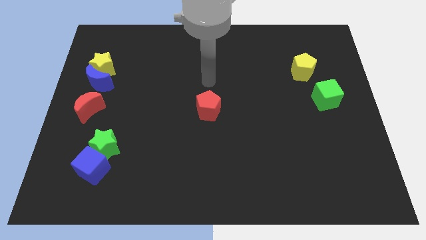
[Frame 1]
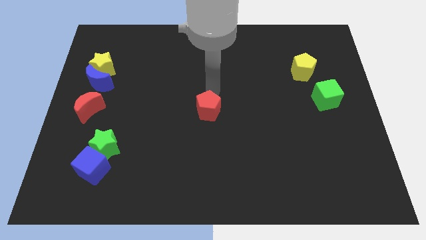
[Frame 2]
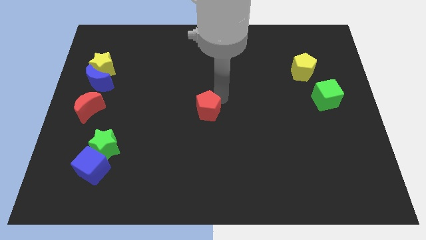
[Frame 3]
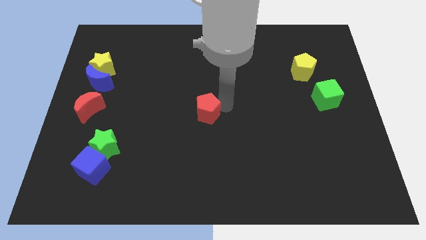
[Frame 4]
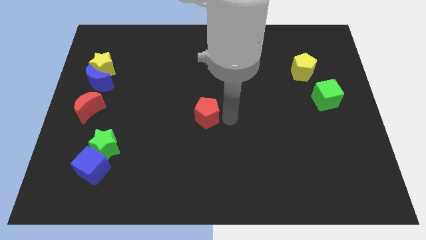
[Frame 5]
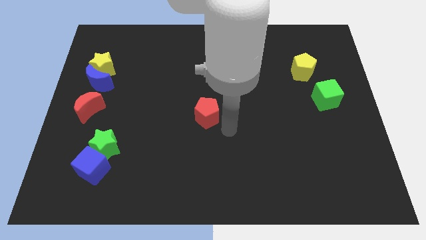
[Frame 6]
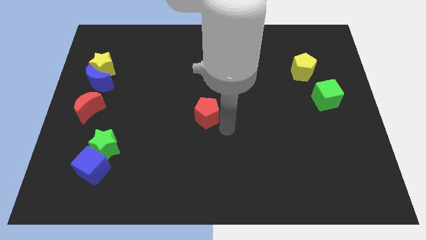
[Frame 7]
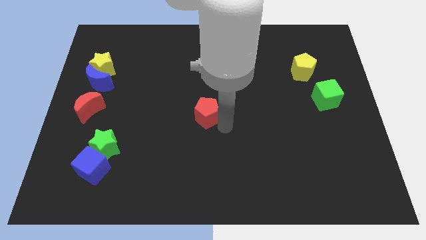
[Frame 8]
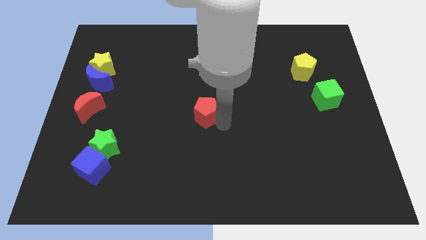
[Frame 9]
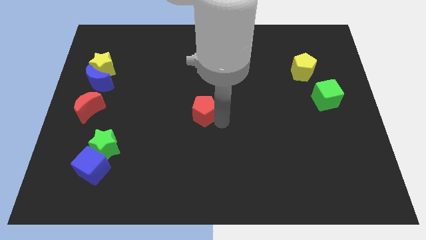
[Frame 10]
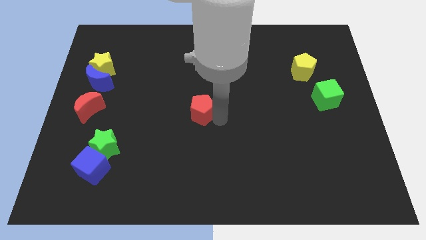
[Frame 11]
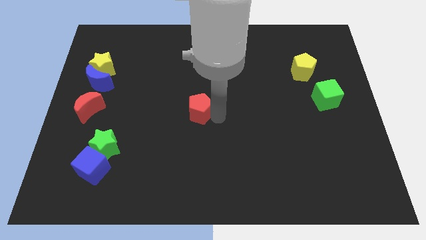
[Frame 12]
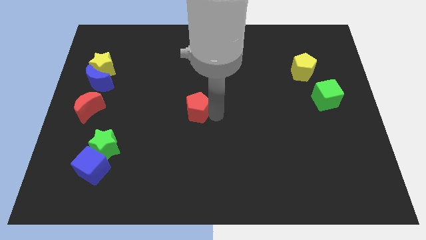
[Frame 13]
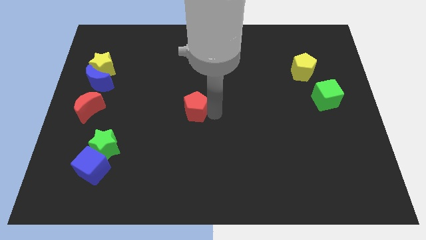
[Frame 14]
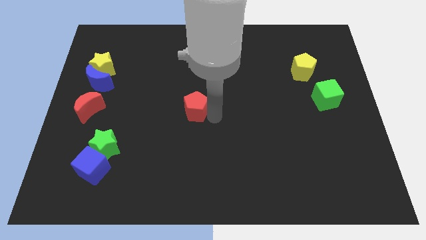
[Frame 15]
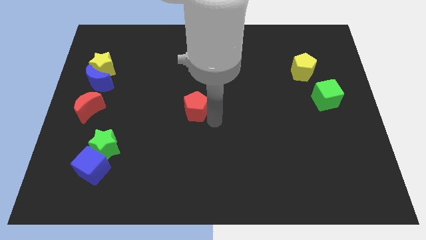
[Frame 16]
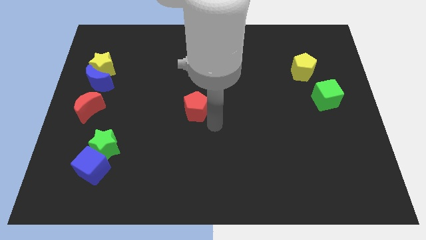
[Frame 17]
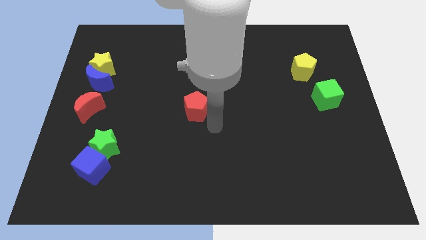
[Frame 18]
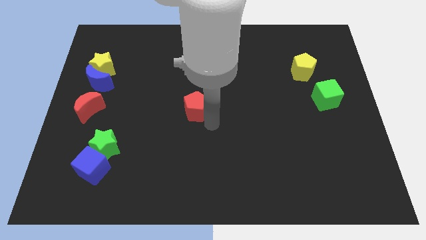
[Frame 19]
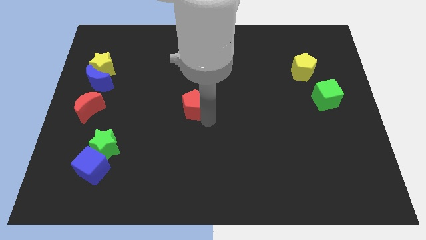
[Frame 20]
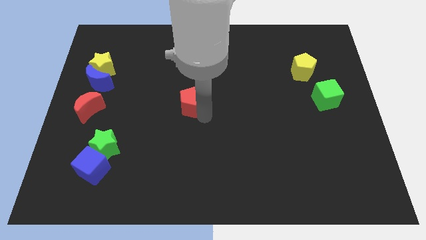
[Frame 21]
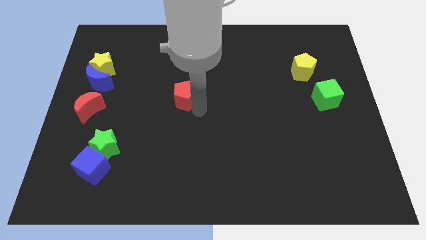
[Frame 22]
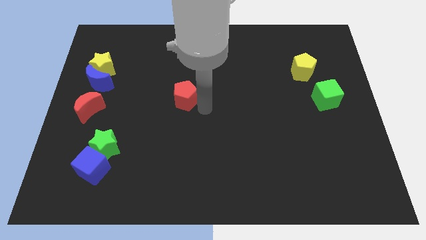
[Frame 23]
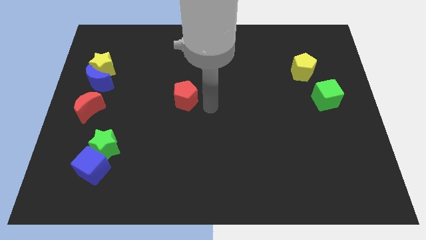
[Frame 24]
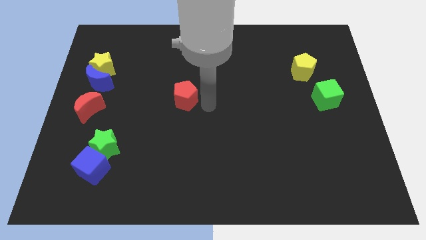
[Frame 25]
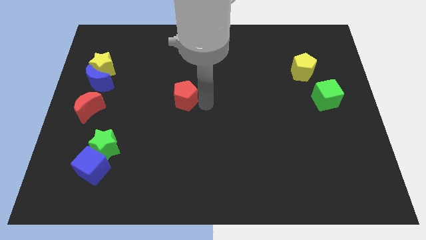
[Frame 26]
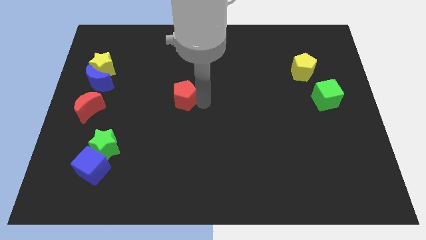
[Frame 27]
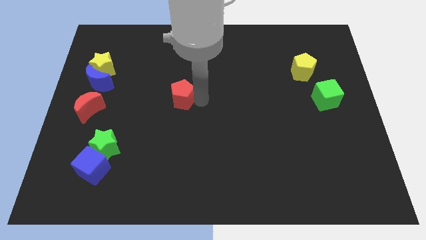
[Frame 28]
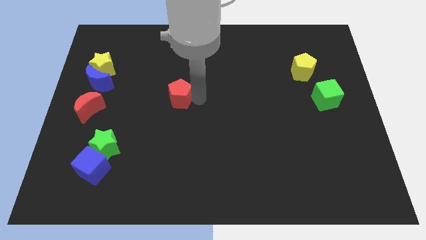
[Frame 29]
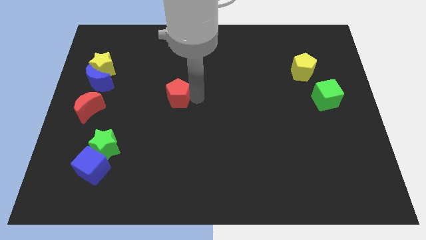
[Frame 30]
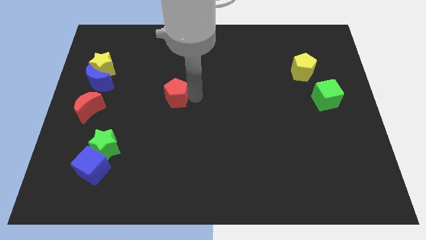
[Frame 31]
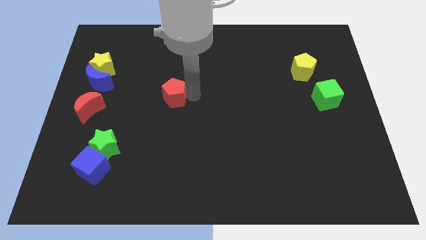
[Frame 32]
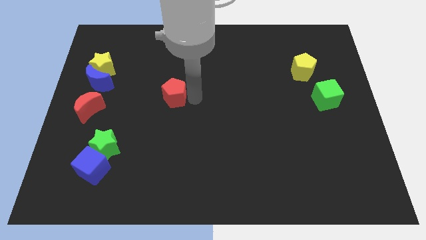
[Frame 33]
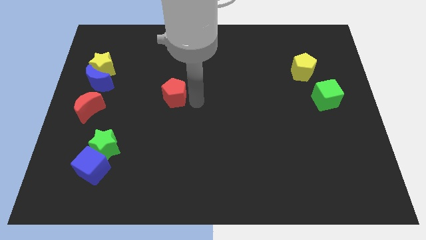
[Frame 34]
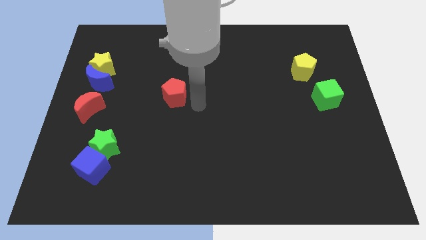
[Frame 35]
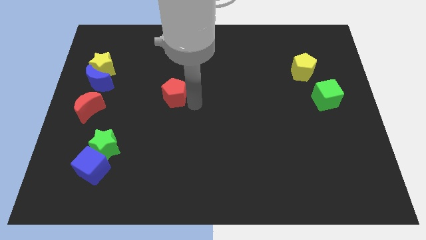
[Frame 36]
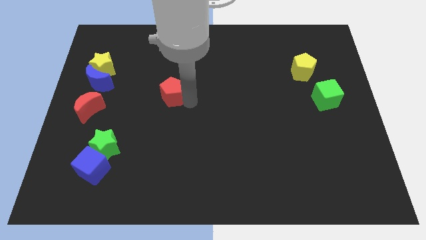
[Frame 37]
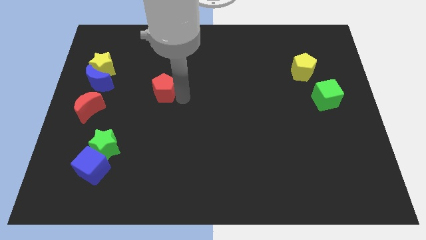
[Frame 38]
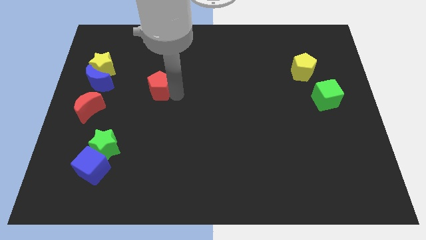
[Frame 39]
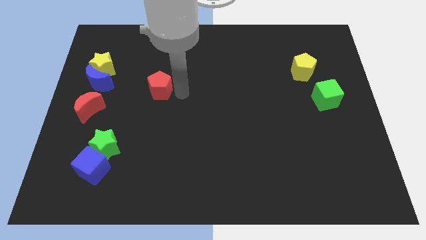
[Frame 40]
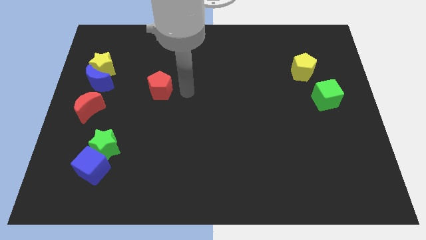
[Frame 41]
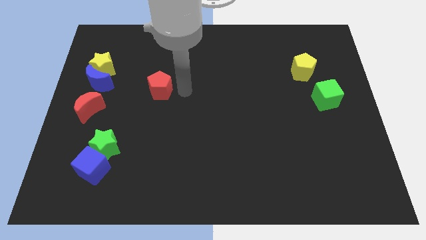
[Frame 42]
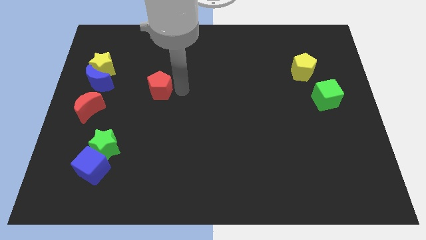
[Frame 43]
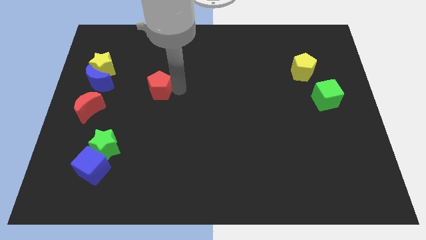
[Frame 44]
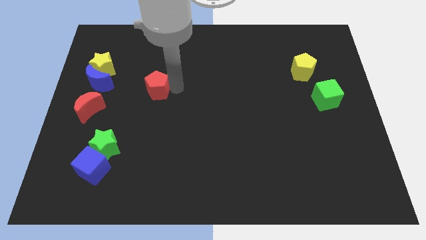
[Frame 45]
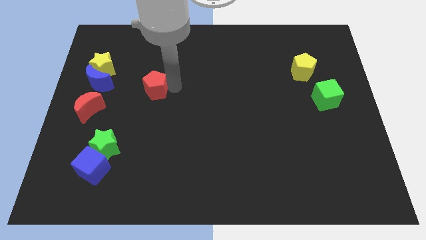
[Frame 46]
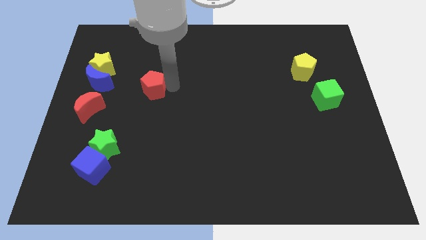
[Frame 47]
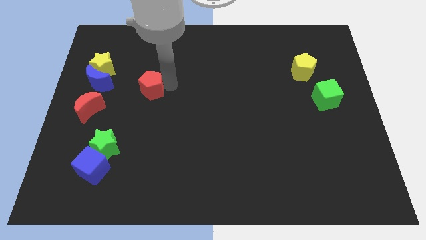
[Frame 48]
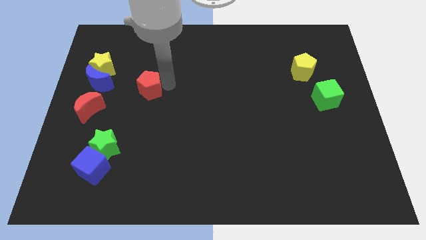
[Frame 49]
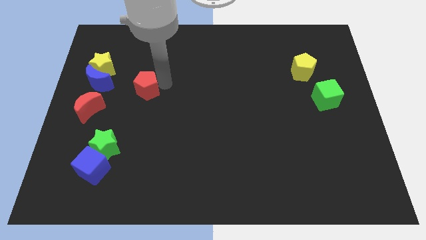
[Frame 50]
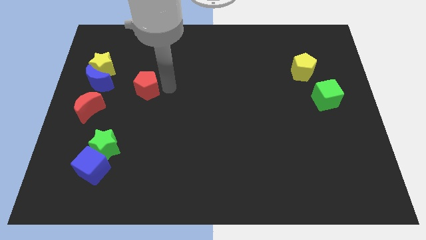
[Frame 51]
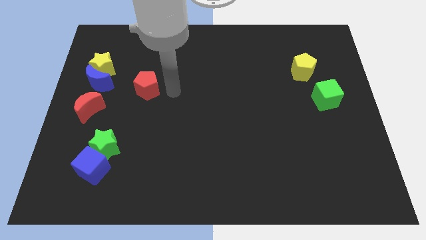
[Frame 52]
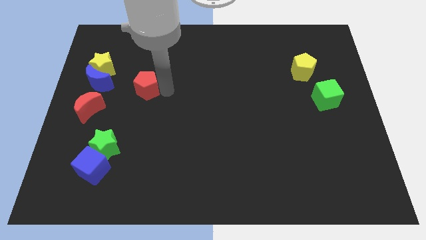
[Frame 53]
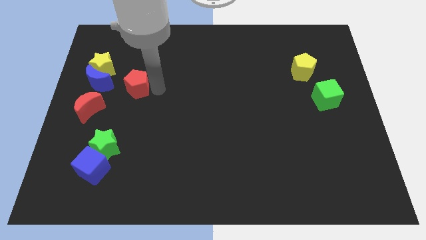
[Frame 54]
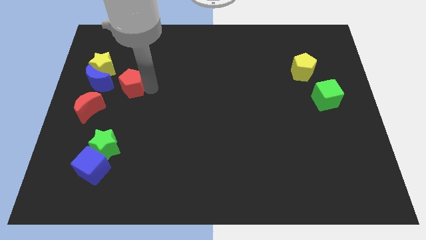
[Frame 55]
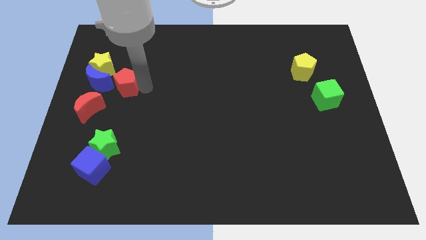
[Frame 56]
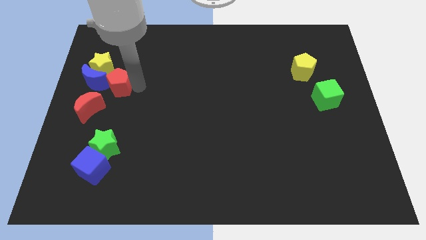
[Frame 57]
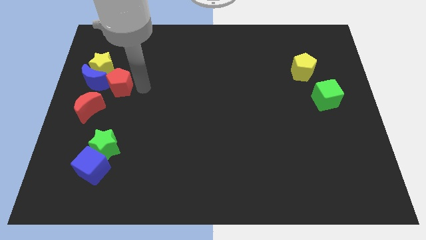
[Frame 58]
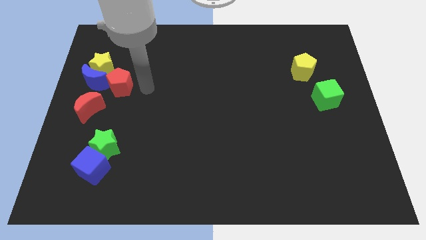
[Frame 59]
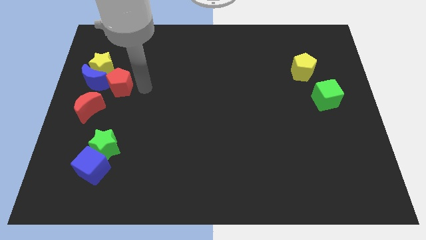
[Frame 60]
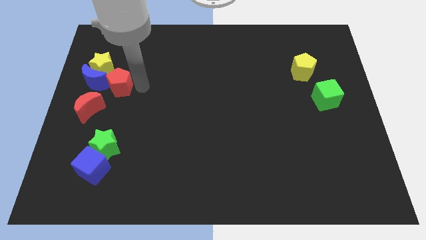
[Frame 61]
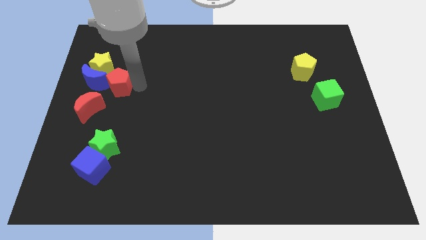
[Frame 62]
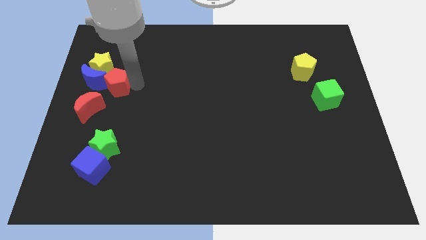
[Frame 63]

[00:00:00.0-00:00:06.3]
push the red pentagon close to the blue moon
